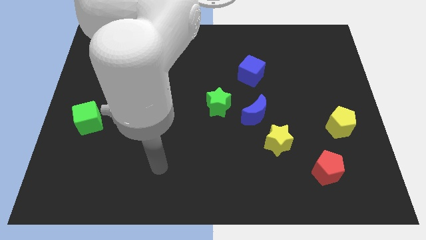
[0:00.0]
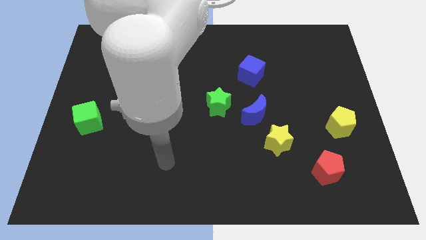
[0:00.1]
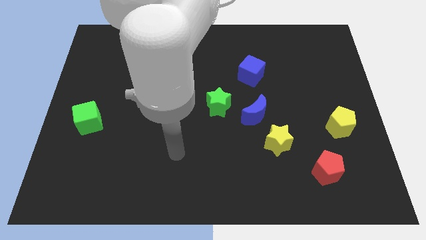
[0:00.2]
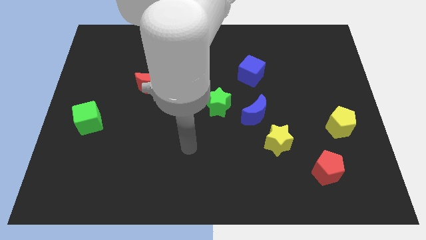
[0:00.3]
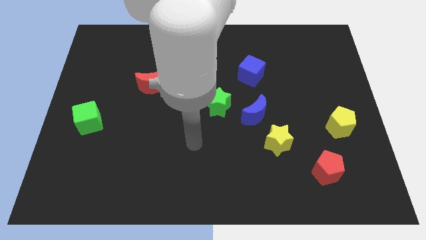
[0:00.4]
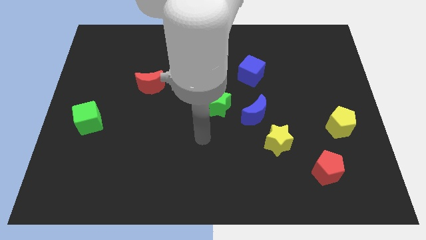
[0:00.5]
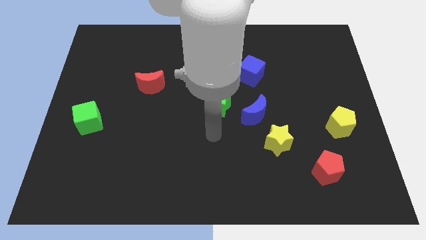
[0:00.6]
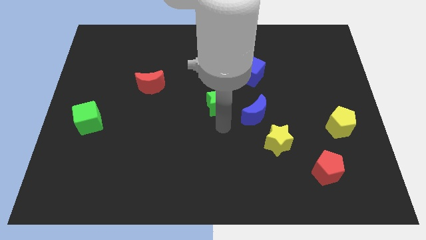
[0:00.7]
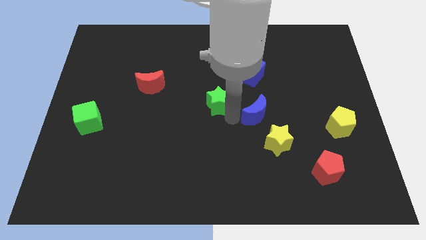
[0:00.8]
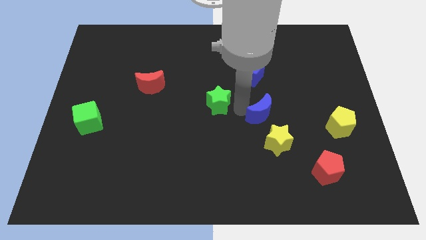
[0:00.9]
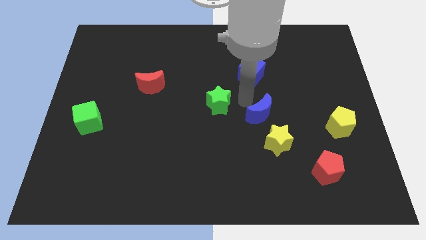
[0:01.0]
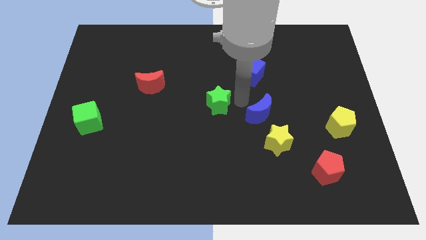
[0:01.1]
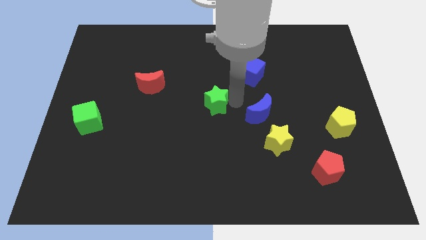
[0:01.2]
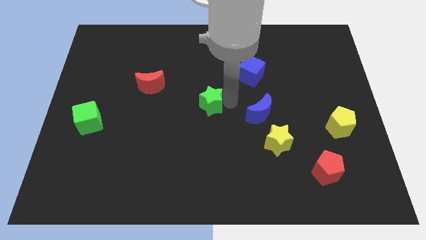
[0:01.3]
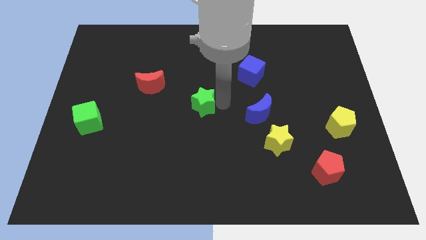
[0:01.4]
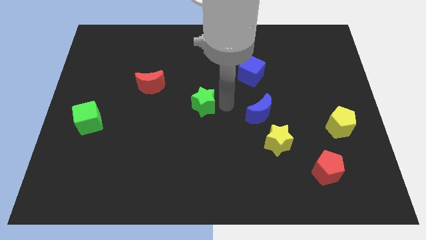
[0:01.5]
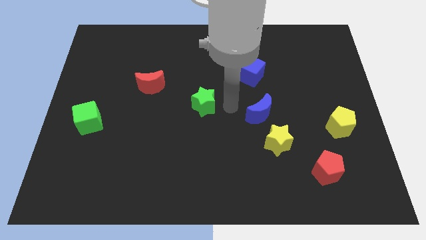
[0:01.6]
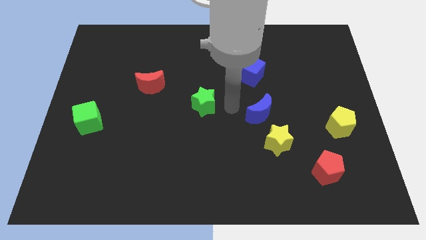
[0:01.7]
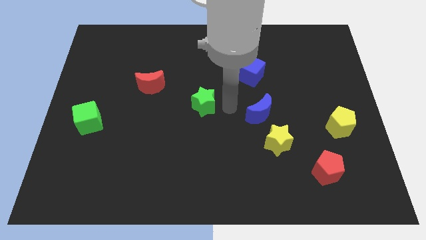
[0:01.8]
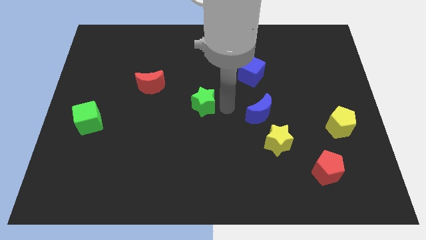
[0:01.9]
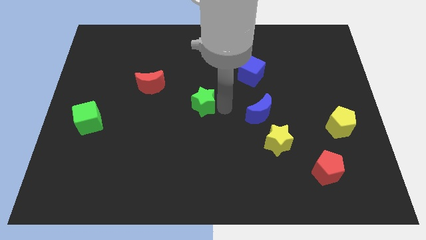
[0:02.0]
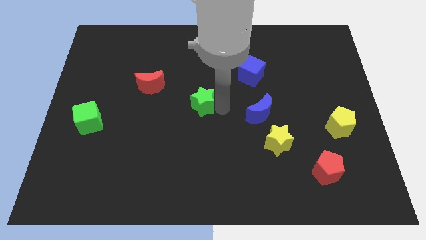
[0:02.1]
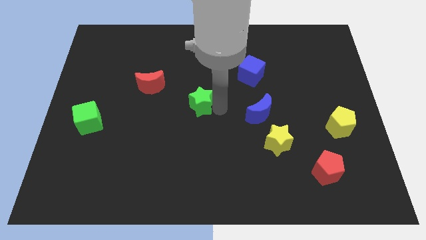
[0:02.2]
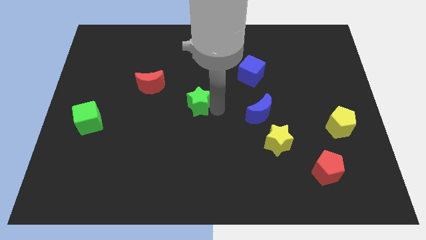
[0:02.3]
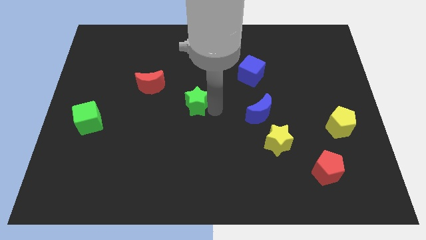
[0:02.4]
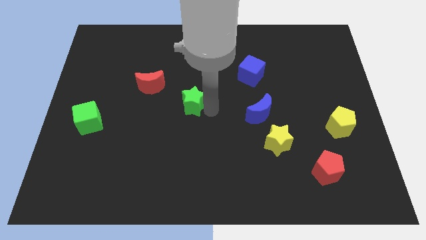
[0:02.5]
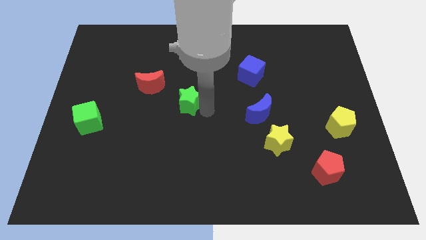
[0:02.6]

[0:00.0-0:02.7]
slightly move the green star left

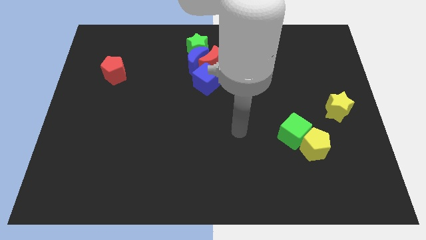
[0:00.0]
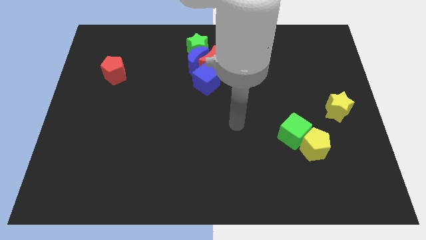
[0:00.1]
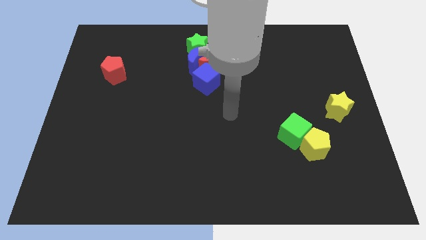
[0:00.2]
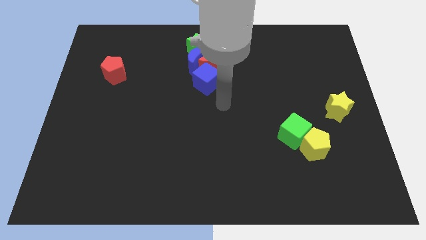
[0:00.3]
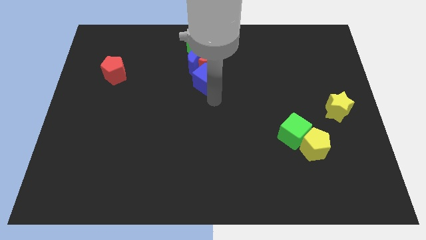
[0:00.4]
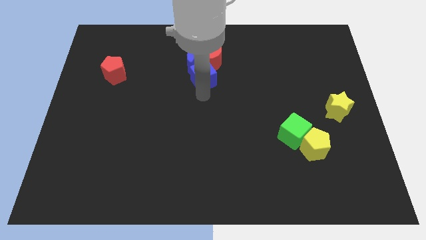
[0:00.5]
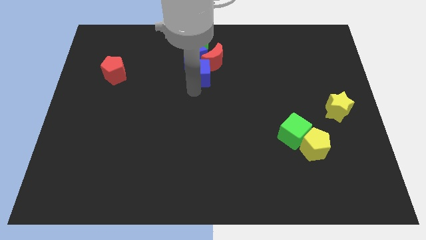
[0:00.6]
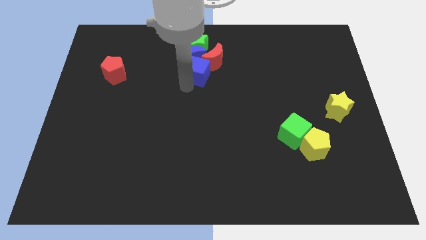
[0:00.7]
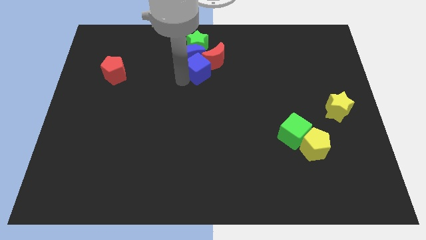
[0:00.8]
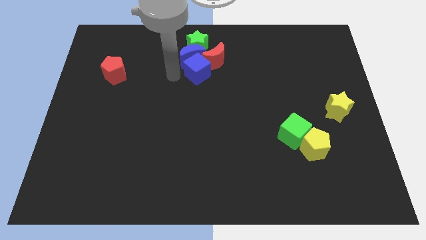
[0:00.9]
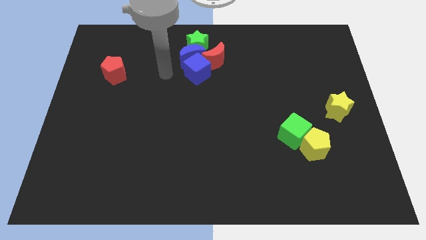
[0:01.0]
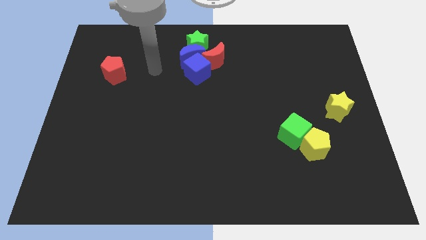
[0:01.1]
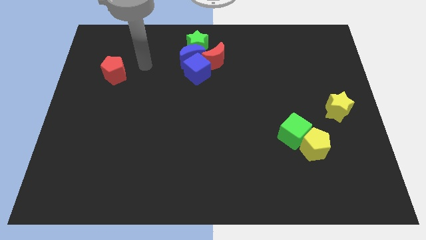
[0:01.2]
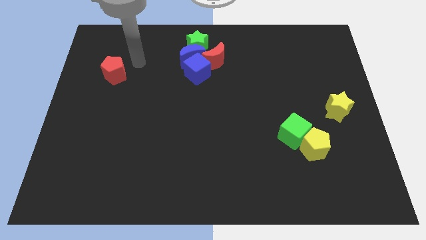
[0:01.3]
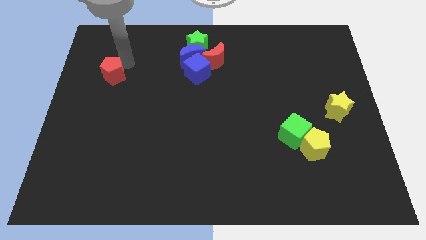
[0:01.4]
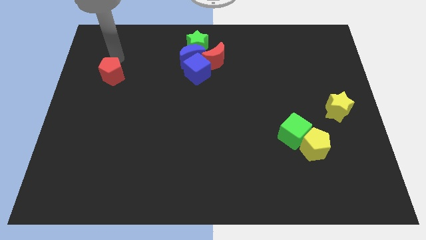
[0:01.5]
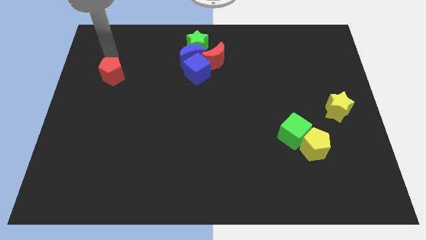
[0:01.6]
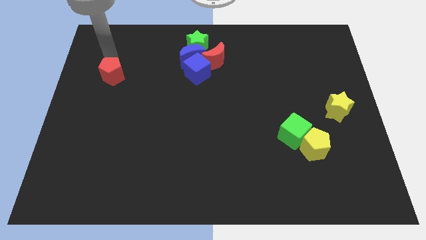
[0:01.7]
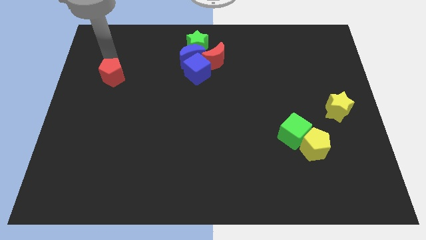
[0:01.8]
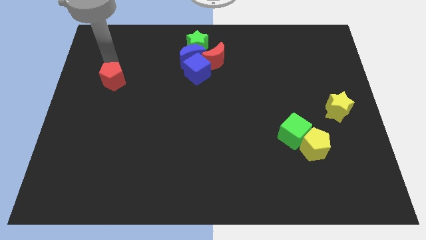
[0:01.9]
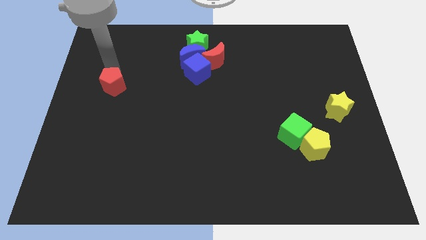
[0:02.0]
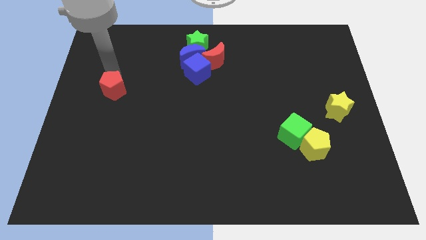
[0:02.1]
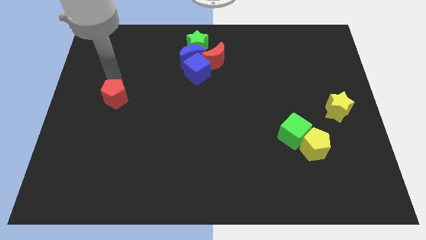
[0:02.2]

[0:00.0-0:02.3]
slide the red pentagon a little bit downwards

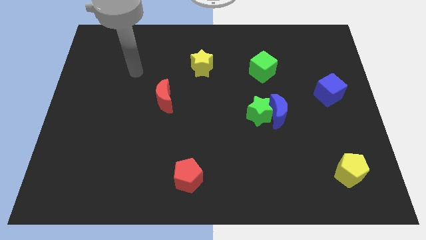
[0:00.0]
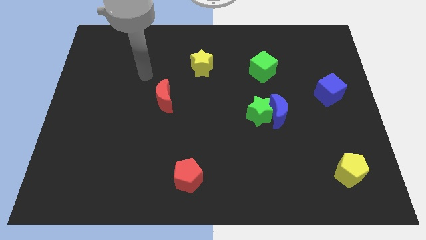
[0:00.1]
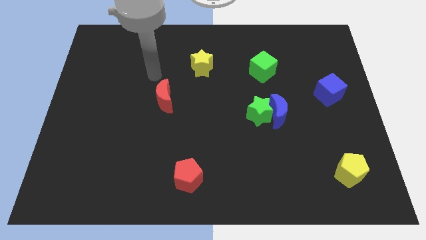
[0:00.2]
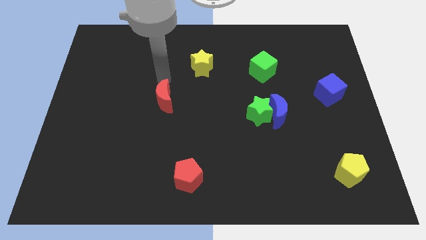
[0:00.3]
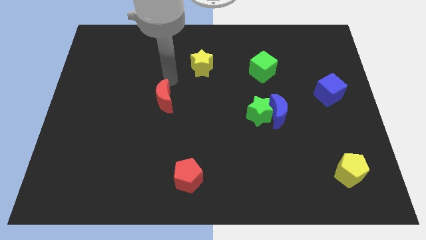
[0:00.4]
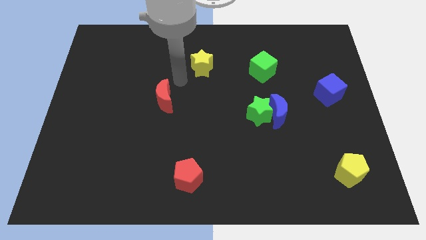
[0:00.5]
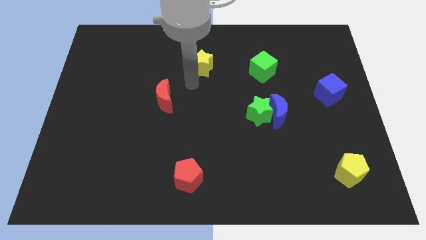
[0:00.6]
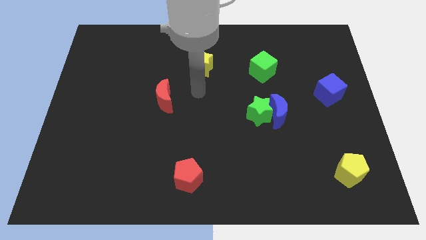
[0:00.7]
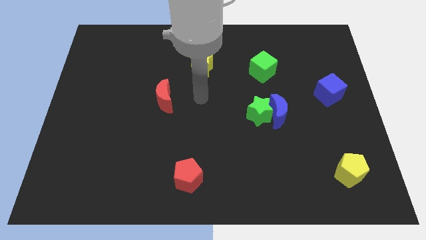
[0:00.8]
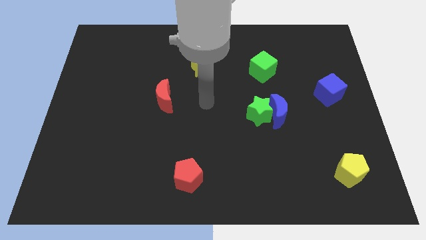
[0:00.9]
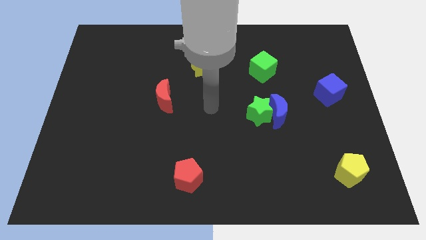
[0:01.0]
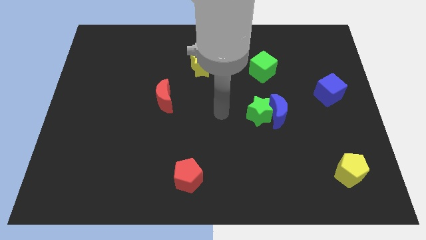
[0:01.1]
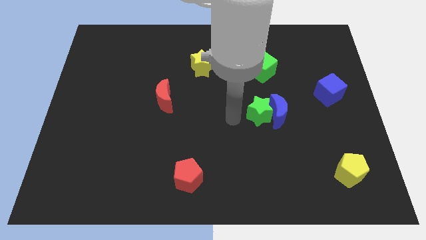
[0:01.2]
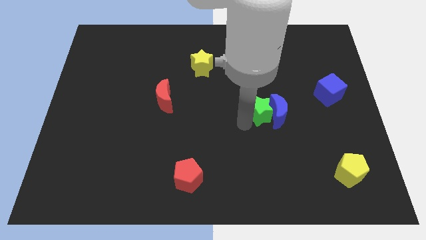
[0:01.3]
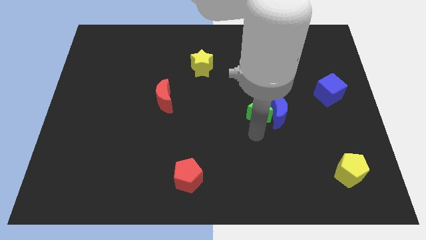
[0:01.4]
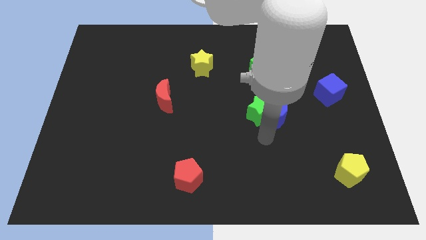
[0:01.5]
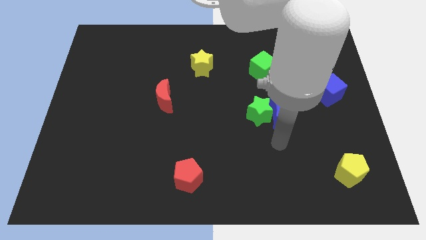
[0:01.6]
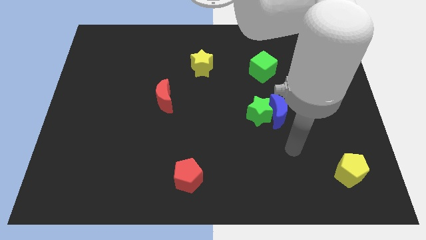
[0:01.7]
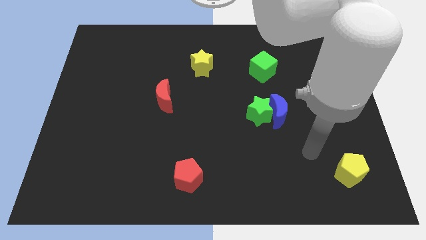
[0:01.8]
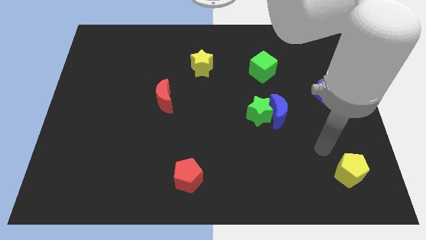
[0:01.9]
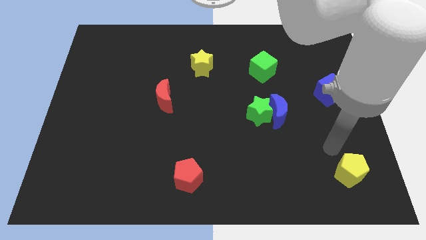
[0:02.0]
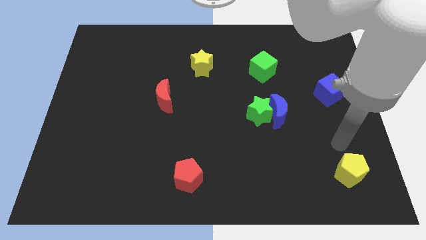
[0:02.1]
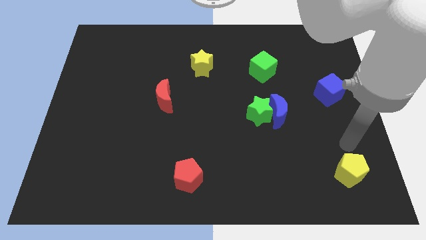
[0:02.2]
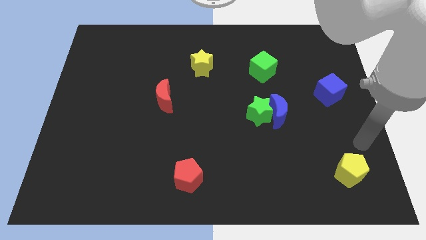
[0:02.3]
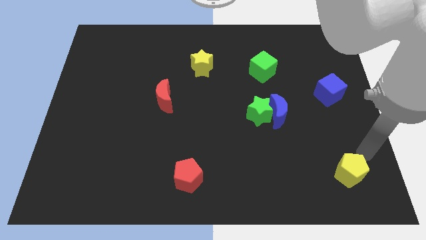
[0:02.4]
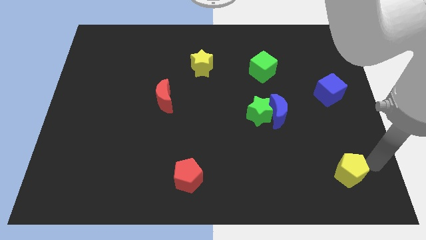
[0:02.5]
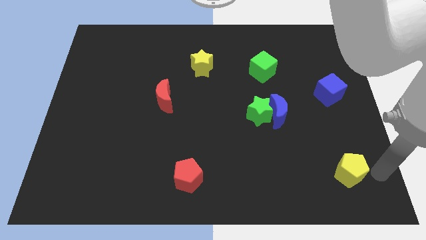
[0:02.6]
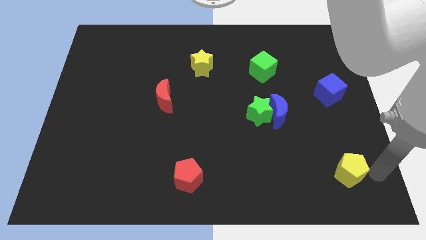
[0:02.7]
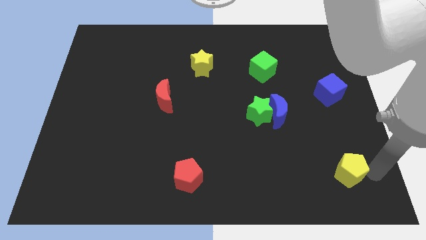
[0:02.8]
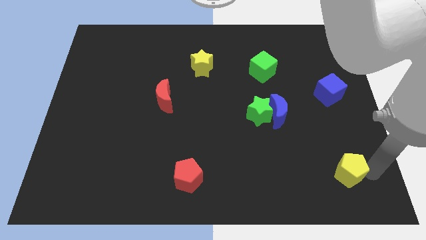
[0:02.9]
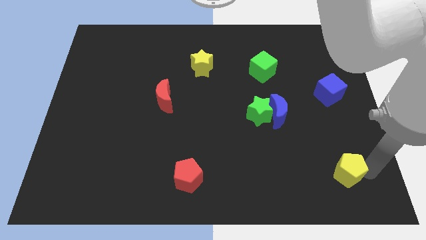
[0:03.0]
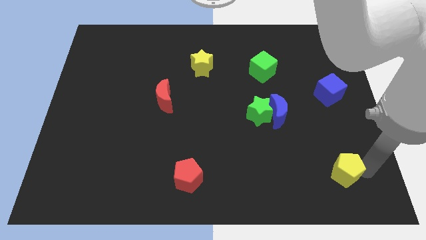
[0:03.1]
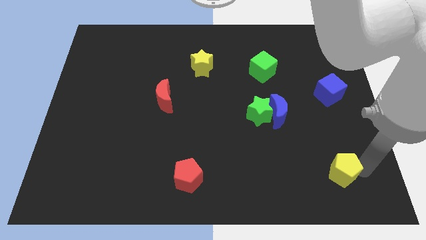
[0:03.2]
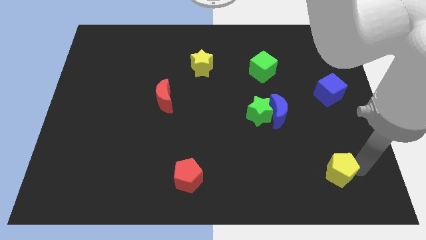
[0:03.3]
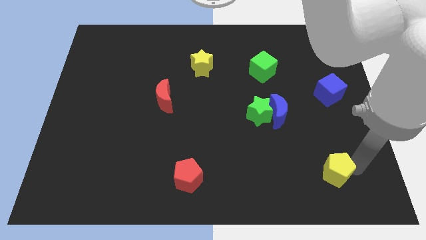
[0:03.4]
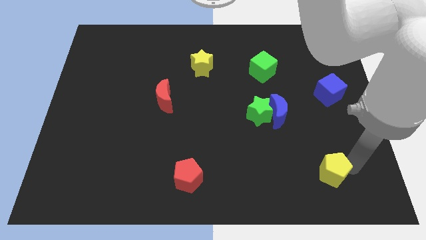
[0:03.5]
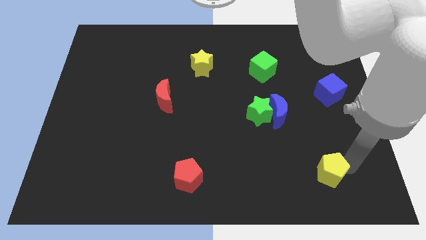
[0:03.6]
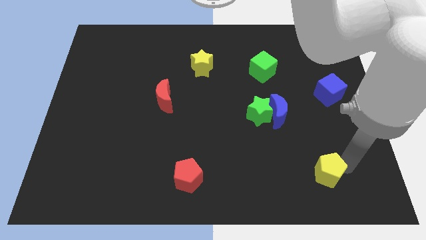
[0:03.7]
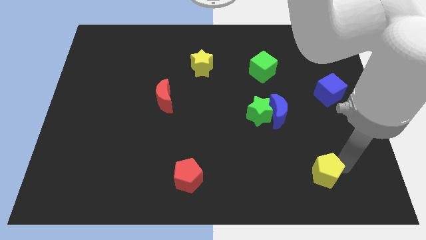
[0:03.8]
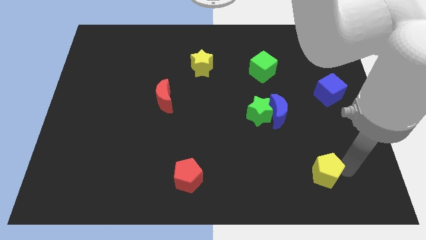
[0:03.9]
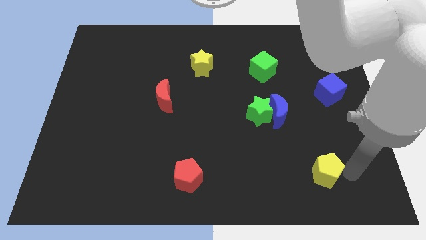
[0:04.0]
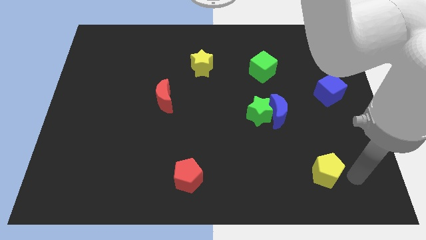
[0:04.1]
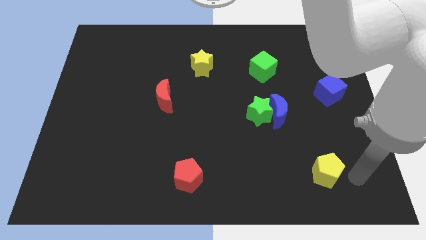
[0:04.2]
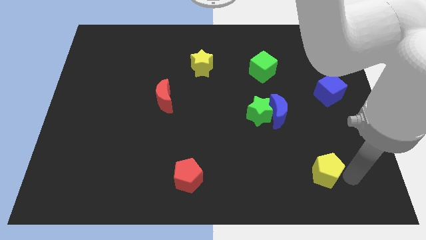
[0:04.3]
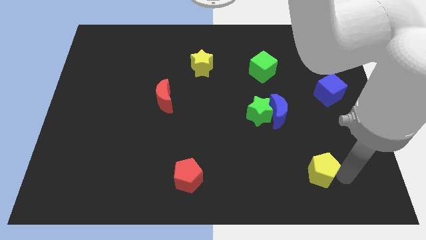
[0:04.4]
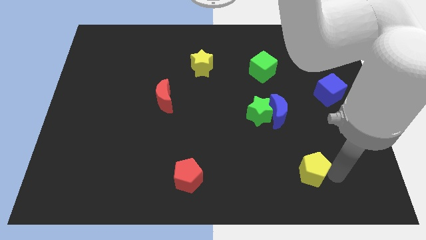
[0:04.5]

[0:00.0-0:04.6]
push the yellow pentagon to the left somewhat
